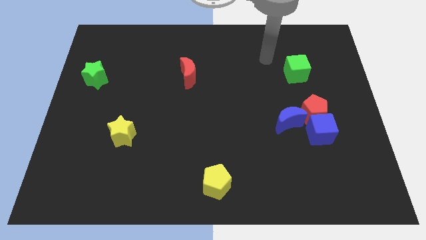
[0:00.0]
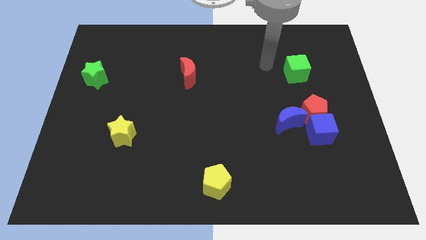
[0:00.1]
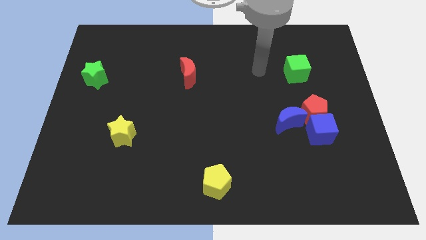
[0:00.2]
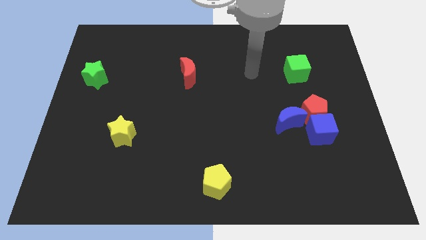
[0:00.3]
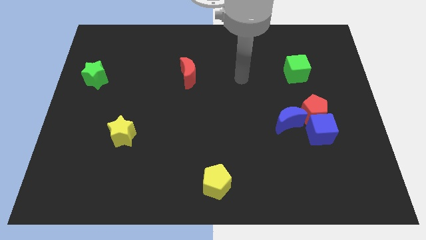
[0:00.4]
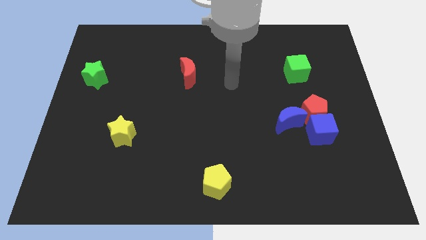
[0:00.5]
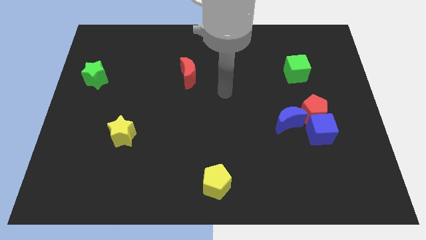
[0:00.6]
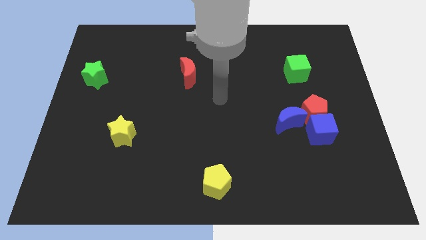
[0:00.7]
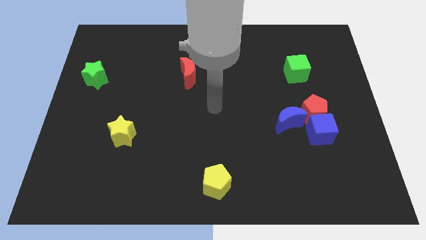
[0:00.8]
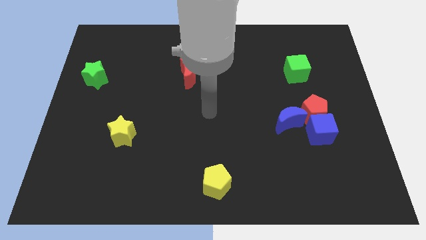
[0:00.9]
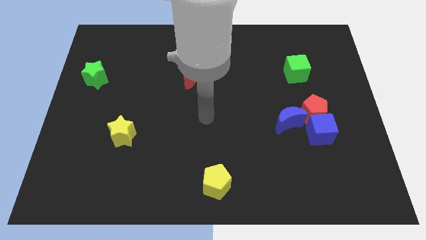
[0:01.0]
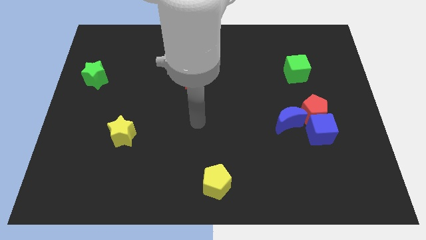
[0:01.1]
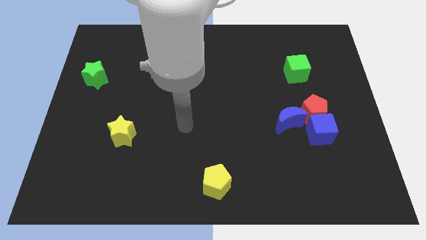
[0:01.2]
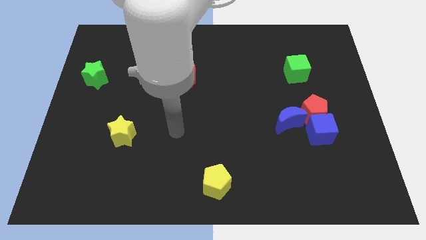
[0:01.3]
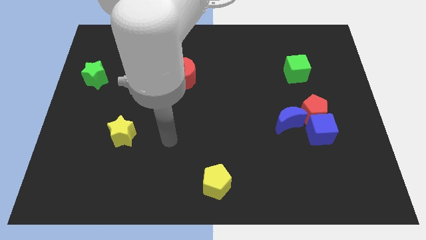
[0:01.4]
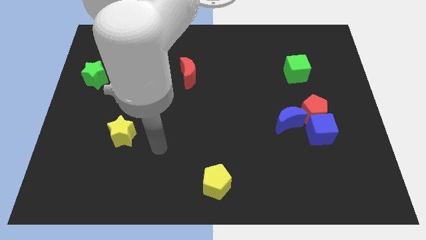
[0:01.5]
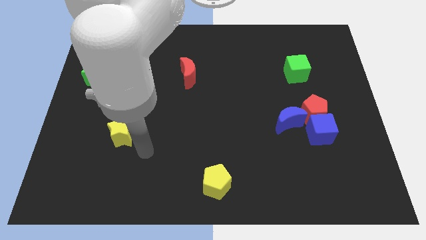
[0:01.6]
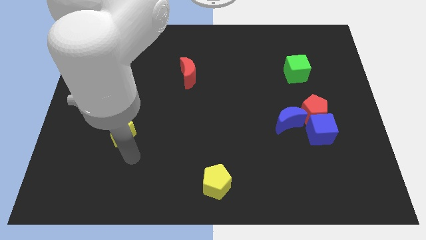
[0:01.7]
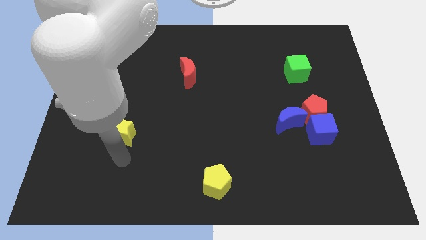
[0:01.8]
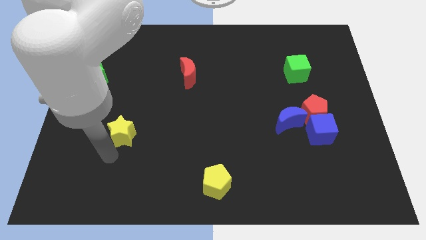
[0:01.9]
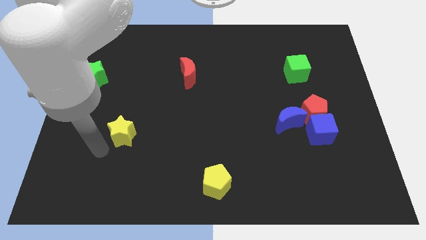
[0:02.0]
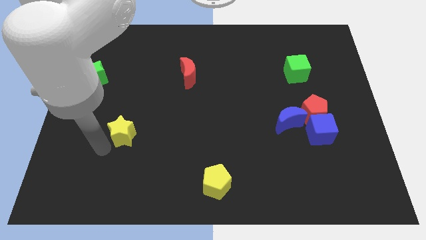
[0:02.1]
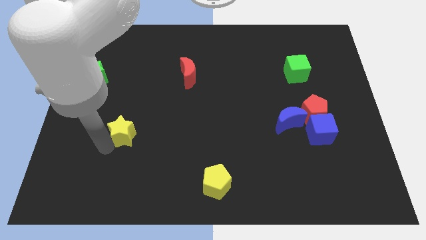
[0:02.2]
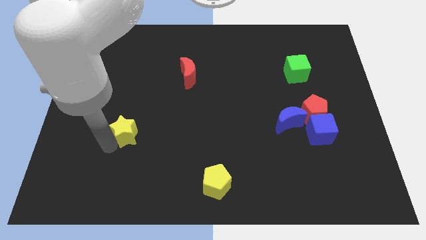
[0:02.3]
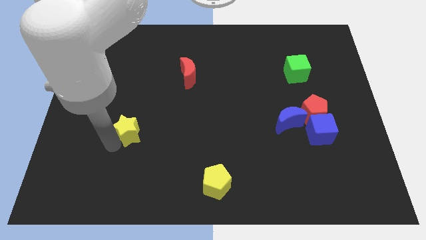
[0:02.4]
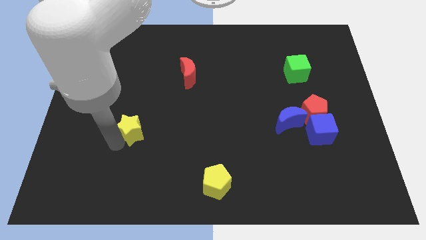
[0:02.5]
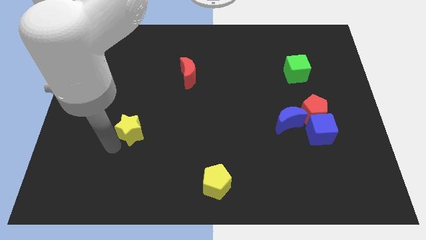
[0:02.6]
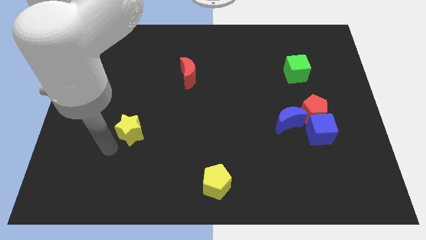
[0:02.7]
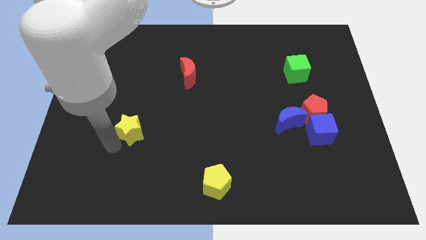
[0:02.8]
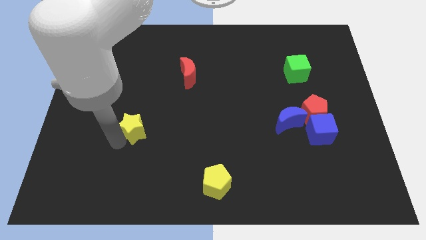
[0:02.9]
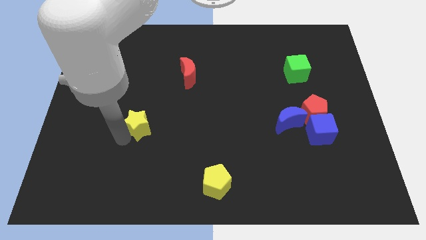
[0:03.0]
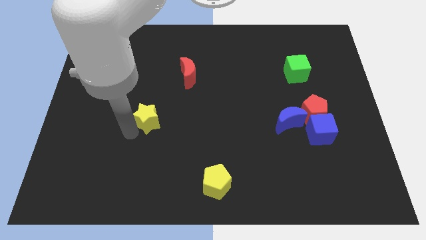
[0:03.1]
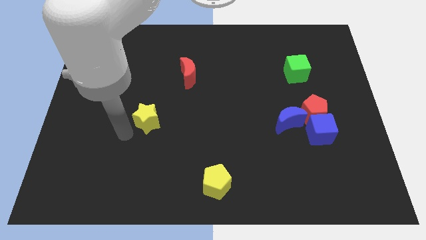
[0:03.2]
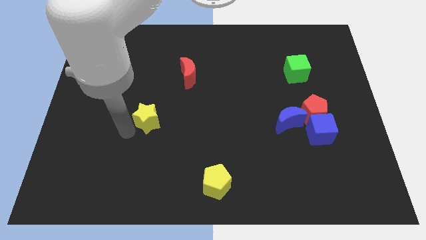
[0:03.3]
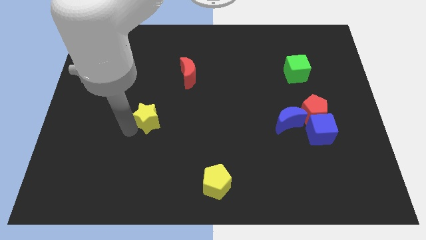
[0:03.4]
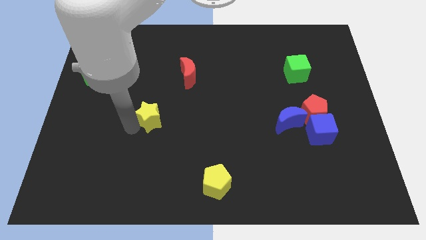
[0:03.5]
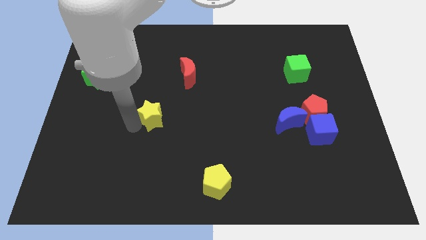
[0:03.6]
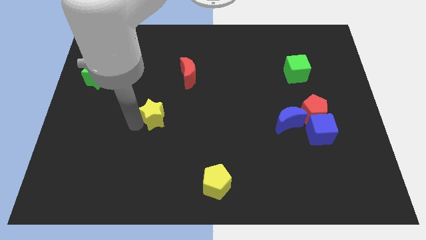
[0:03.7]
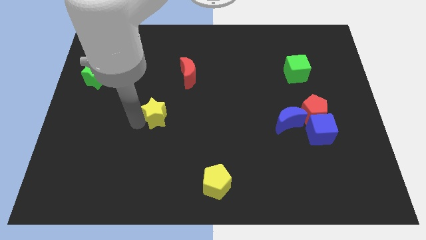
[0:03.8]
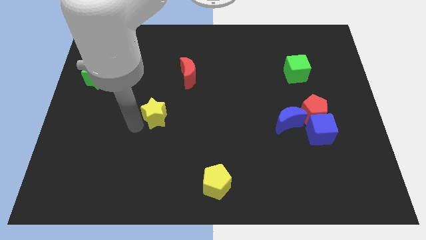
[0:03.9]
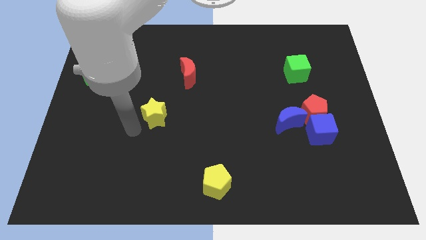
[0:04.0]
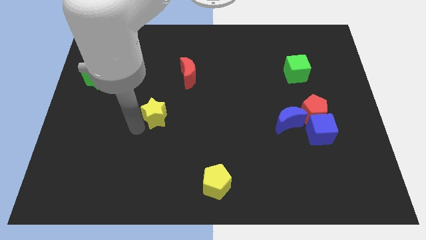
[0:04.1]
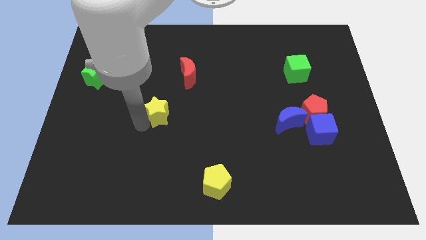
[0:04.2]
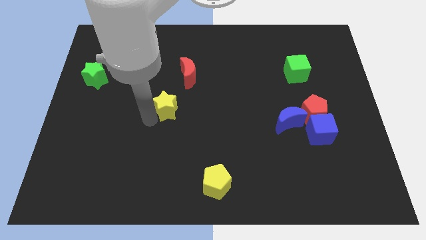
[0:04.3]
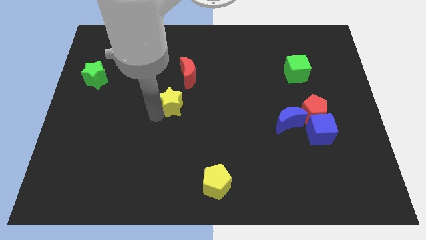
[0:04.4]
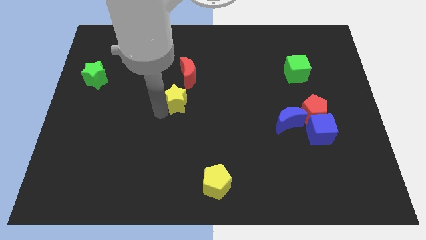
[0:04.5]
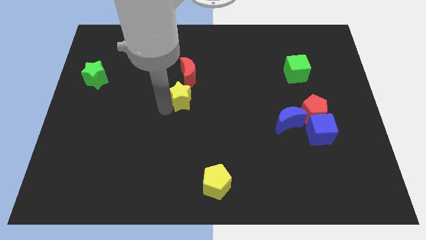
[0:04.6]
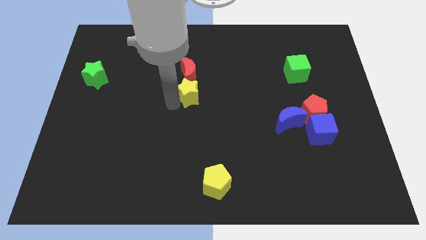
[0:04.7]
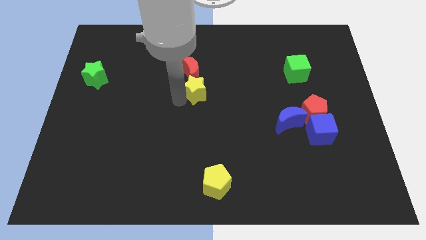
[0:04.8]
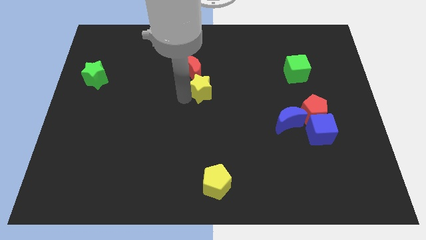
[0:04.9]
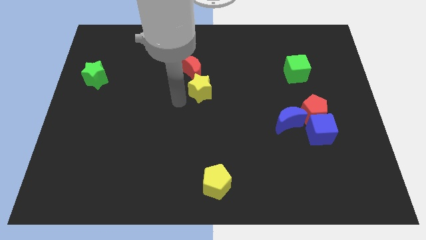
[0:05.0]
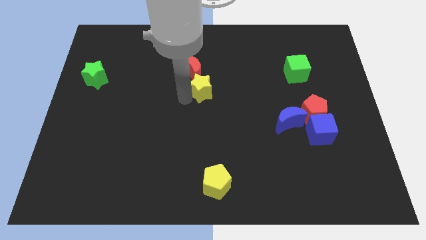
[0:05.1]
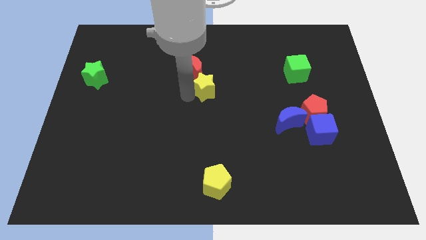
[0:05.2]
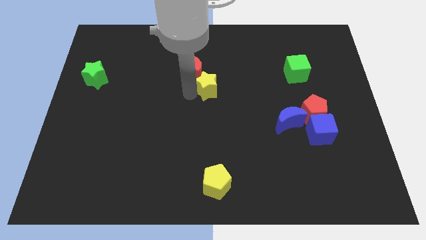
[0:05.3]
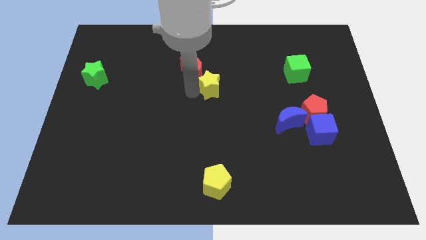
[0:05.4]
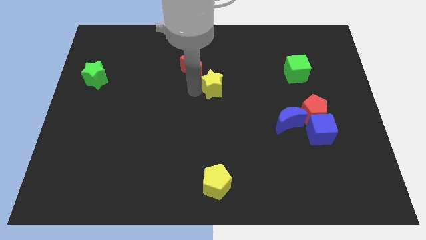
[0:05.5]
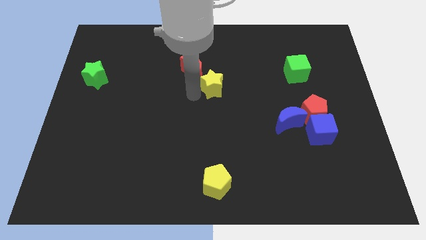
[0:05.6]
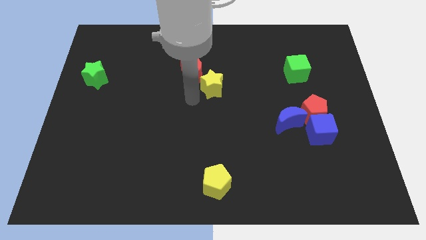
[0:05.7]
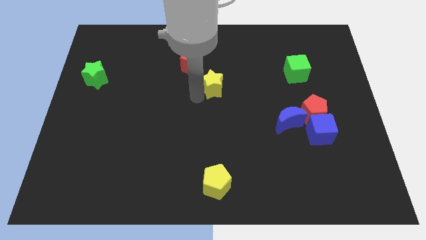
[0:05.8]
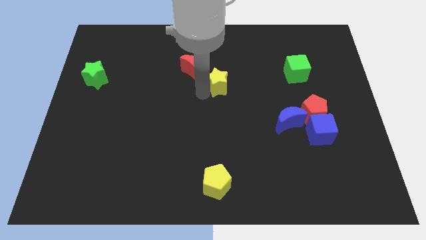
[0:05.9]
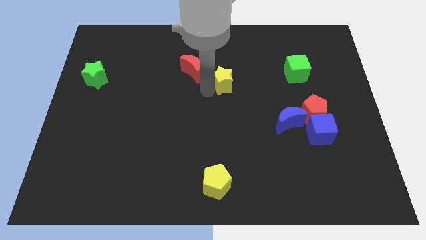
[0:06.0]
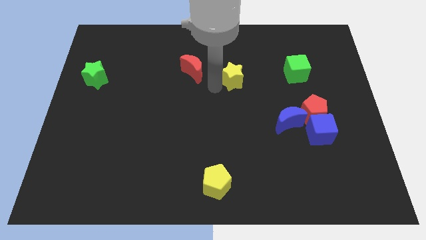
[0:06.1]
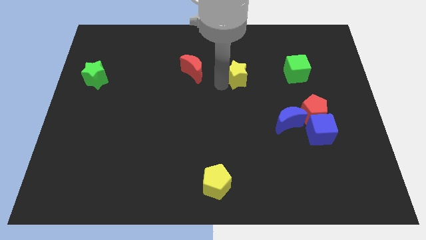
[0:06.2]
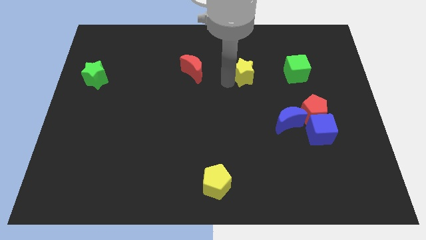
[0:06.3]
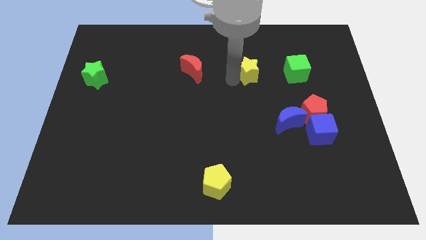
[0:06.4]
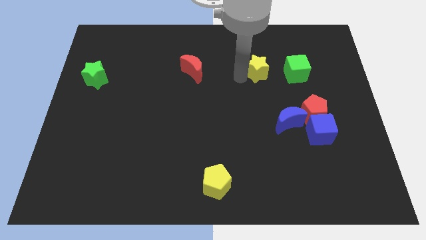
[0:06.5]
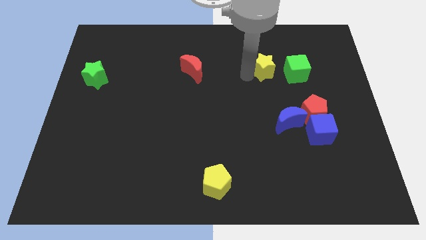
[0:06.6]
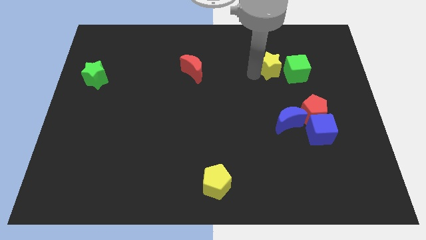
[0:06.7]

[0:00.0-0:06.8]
put the yellow star diagonally up and to the left of the green cube

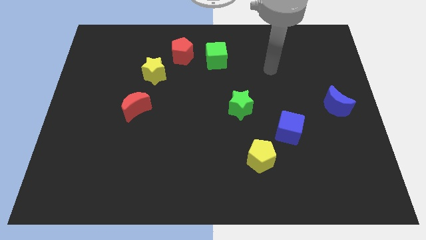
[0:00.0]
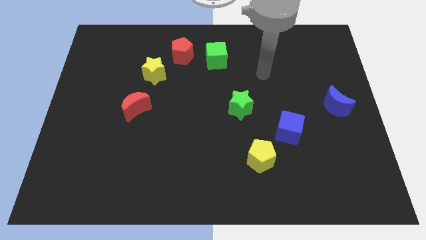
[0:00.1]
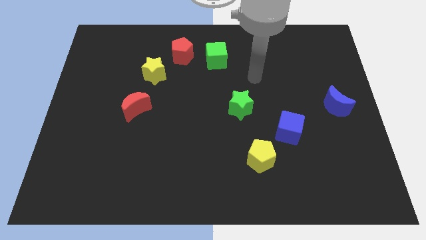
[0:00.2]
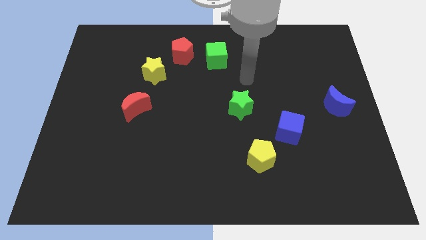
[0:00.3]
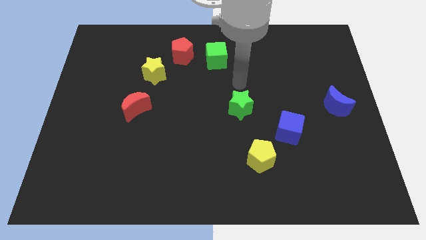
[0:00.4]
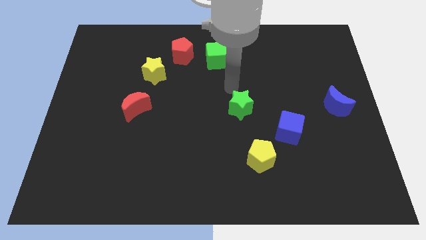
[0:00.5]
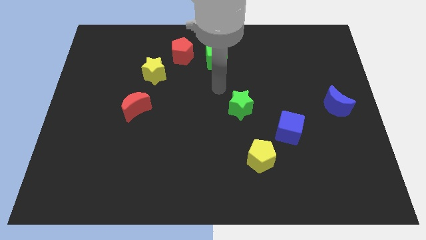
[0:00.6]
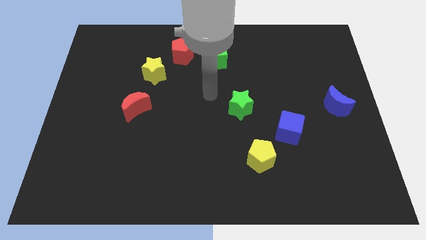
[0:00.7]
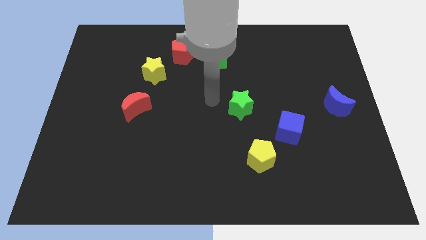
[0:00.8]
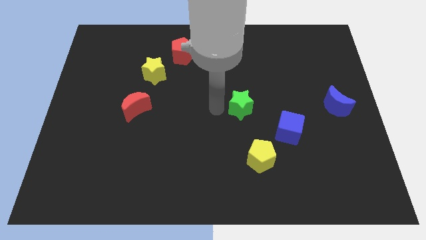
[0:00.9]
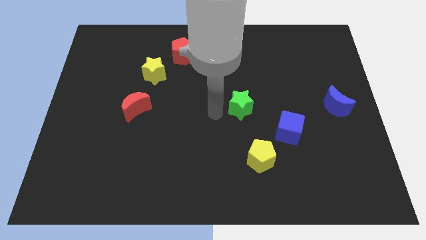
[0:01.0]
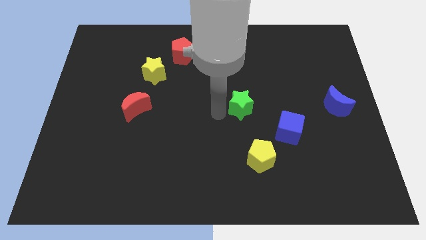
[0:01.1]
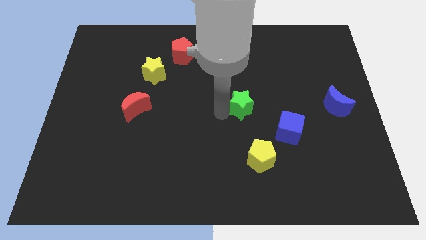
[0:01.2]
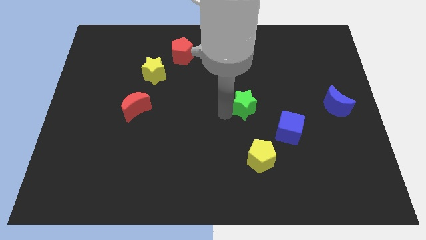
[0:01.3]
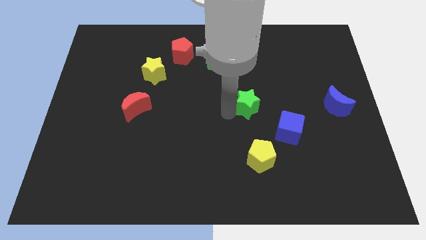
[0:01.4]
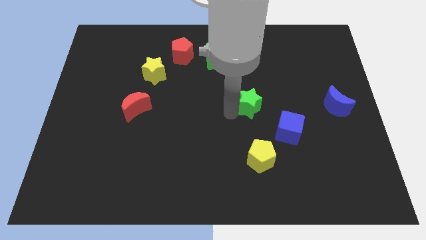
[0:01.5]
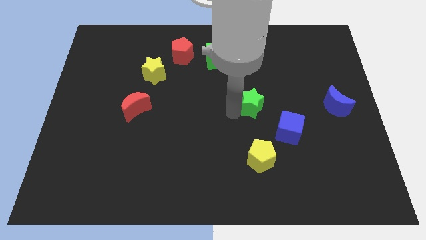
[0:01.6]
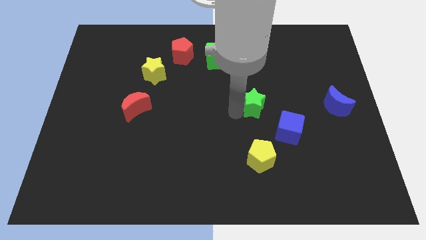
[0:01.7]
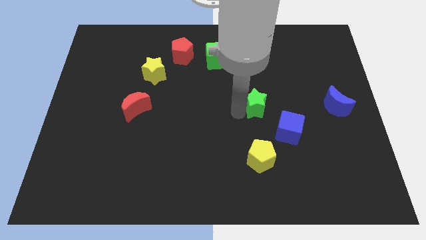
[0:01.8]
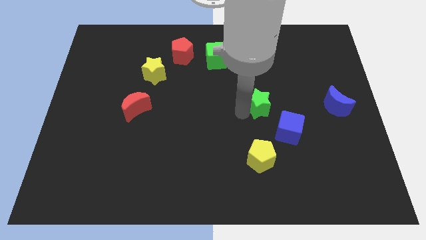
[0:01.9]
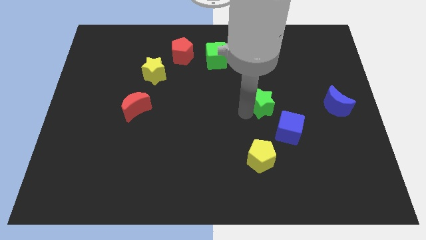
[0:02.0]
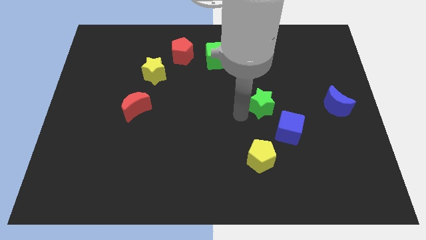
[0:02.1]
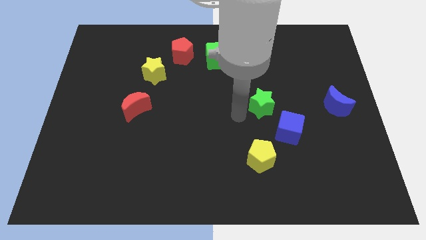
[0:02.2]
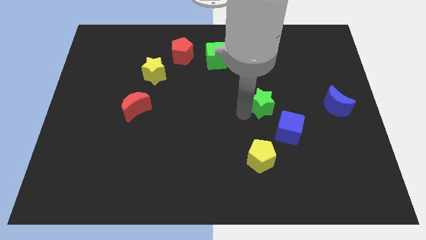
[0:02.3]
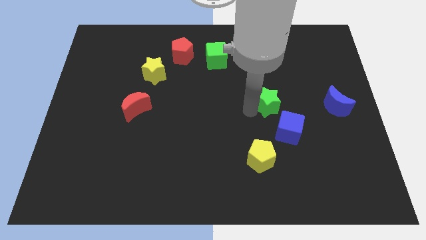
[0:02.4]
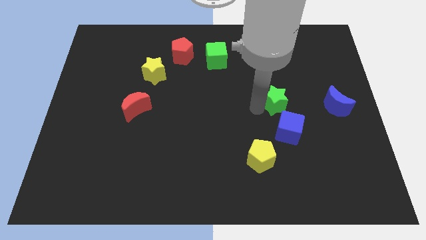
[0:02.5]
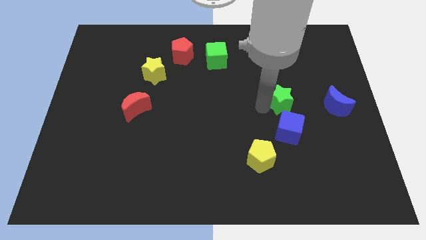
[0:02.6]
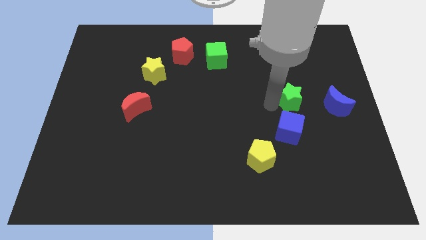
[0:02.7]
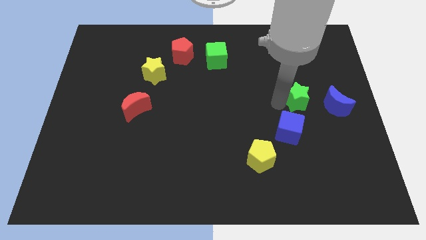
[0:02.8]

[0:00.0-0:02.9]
push the green star to the top left side of the blue moon
